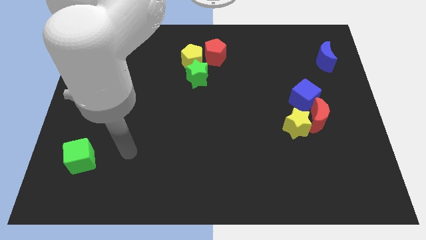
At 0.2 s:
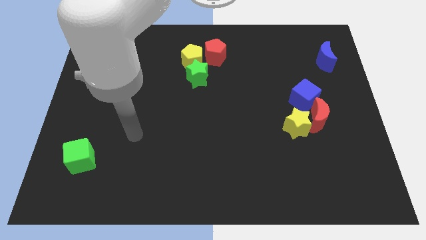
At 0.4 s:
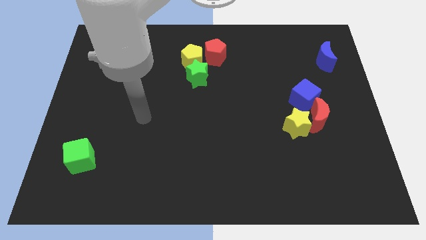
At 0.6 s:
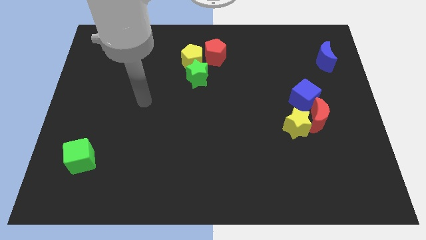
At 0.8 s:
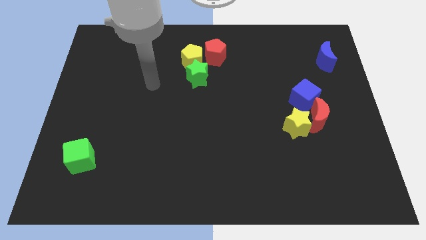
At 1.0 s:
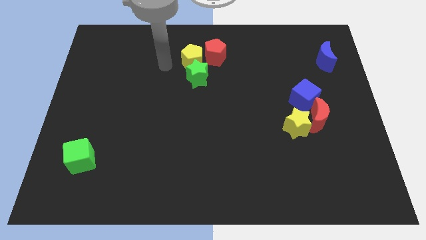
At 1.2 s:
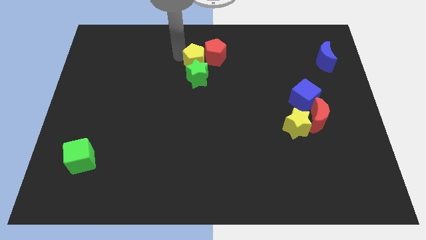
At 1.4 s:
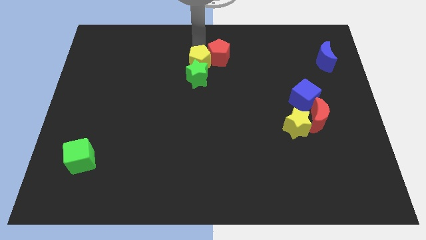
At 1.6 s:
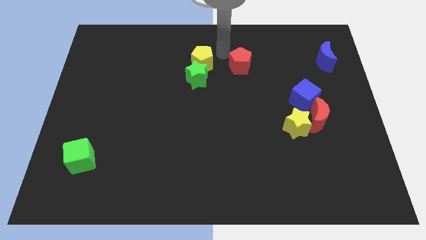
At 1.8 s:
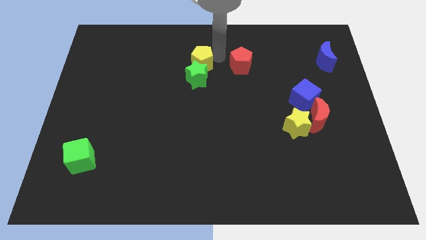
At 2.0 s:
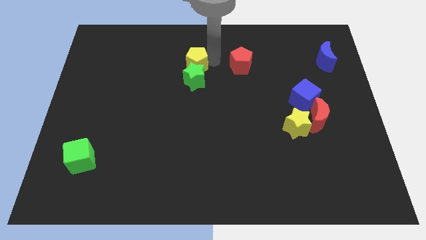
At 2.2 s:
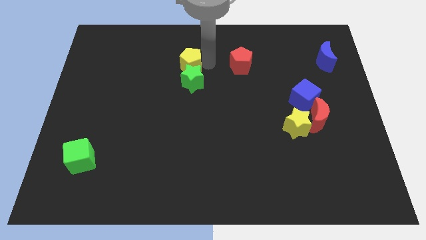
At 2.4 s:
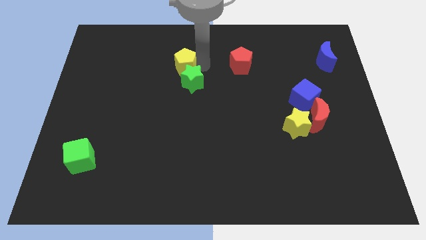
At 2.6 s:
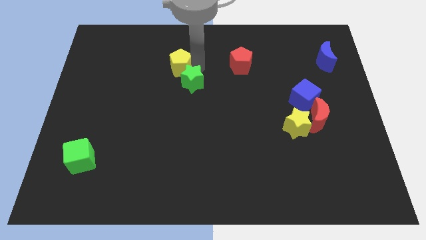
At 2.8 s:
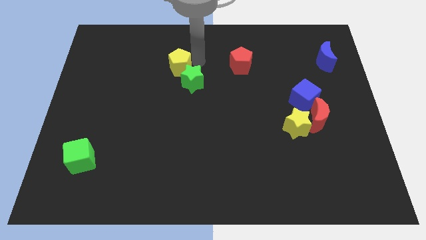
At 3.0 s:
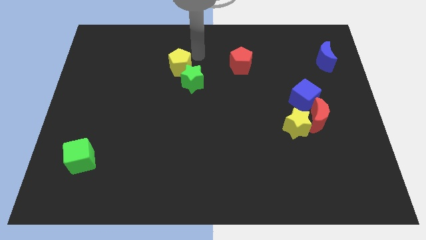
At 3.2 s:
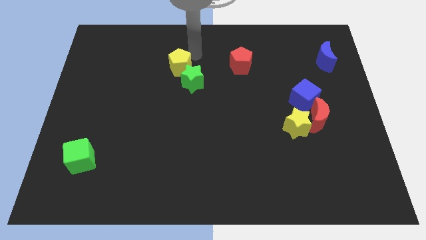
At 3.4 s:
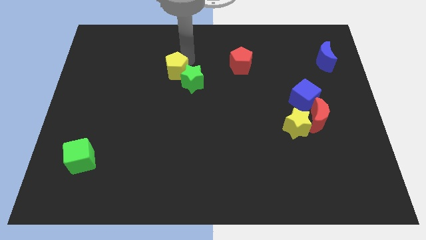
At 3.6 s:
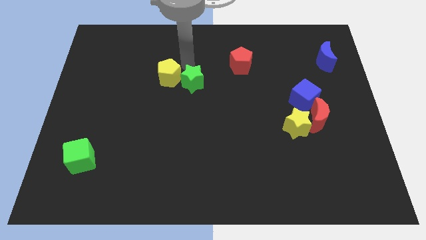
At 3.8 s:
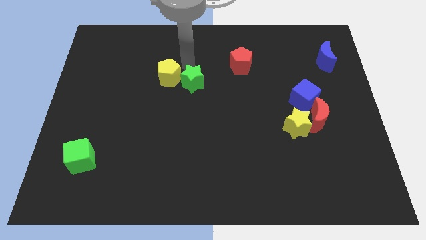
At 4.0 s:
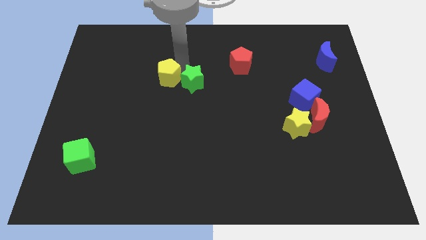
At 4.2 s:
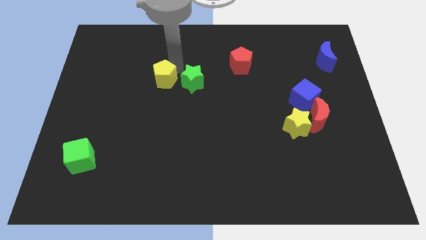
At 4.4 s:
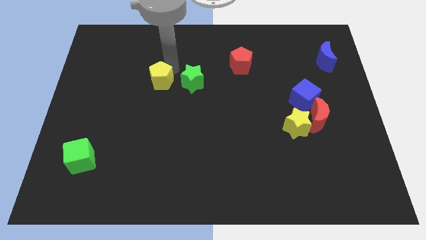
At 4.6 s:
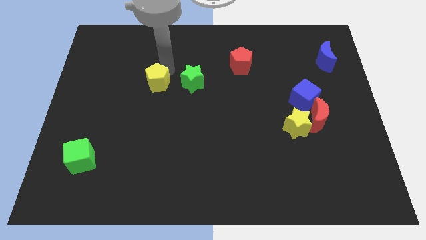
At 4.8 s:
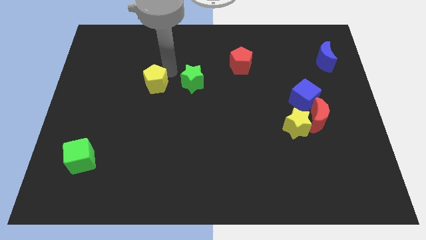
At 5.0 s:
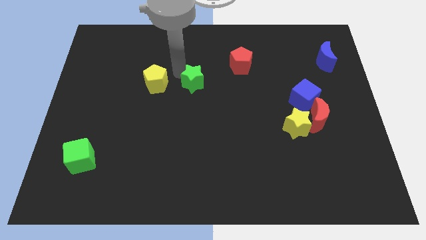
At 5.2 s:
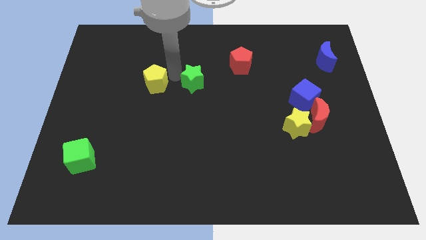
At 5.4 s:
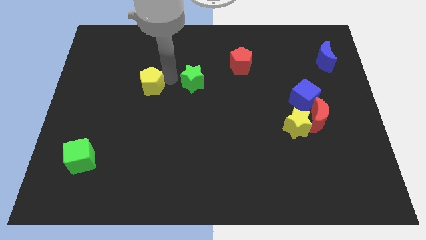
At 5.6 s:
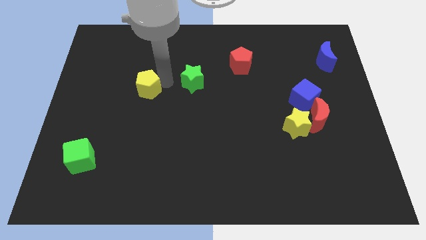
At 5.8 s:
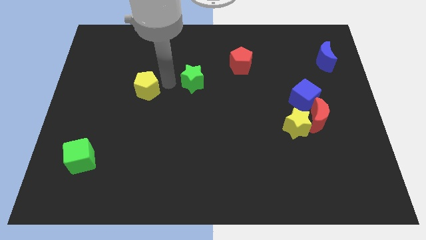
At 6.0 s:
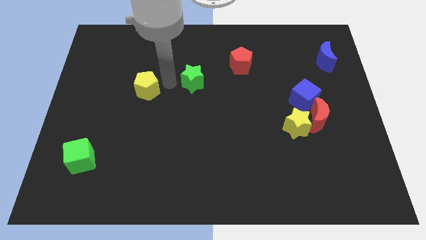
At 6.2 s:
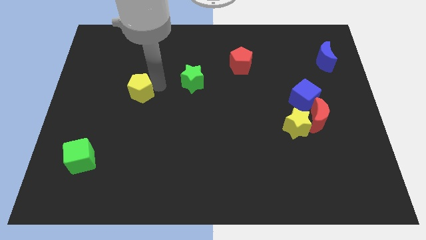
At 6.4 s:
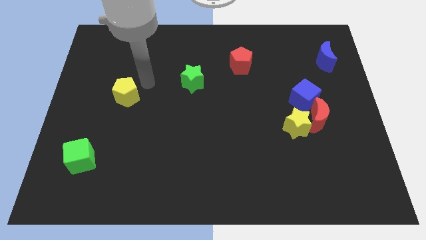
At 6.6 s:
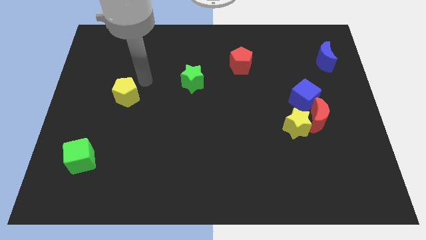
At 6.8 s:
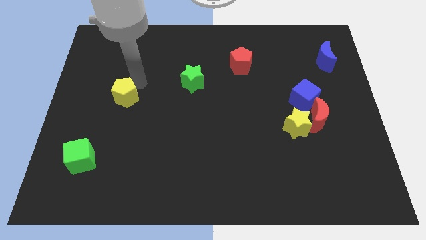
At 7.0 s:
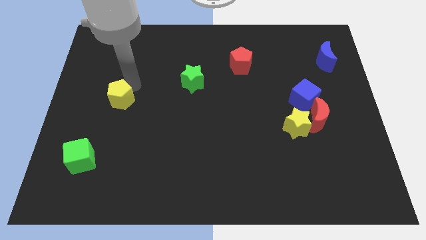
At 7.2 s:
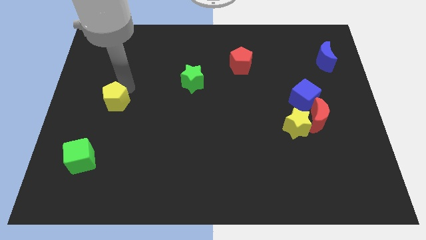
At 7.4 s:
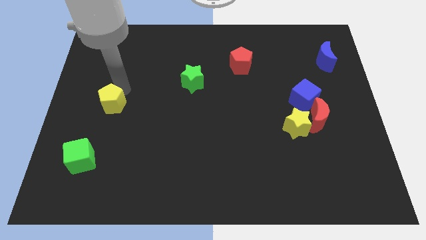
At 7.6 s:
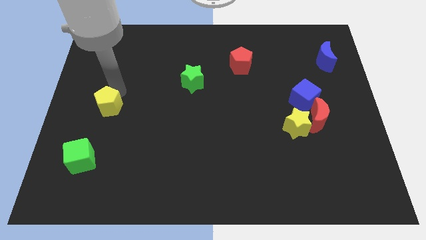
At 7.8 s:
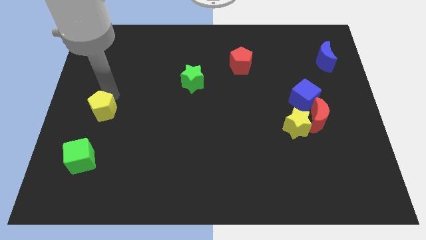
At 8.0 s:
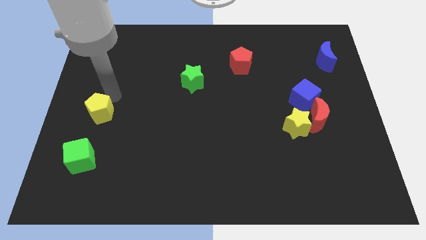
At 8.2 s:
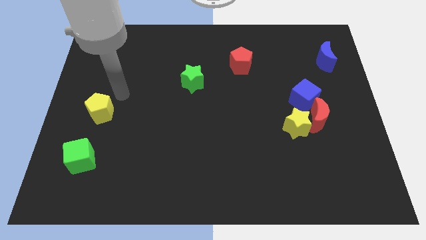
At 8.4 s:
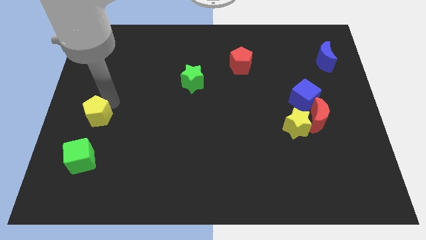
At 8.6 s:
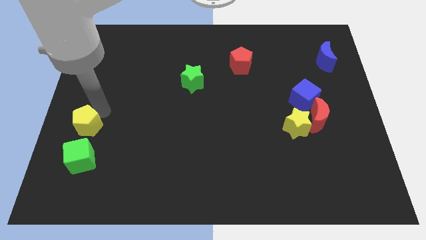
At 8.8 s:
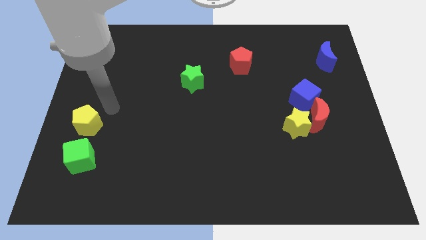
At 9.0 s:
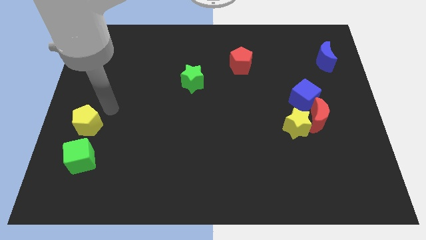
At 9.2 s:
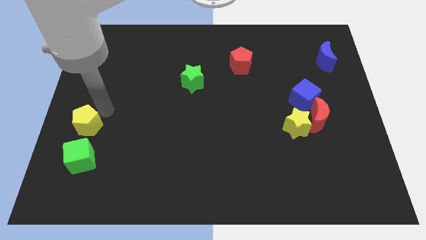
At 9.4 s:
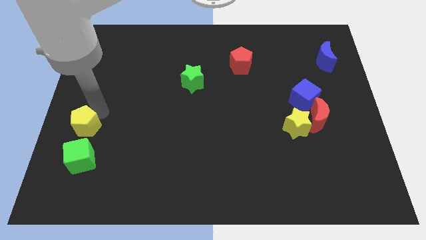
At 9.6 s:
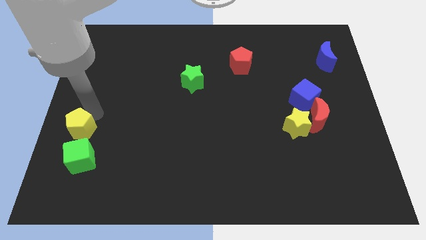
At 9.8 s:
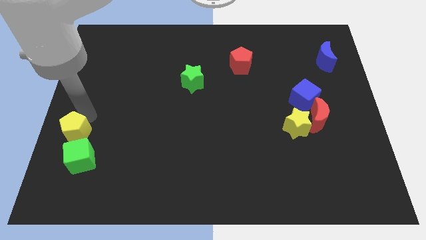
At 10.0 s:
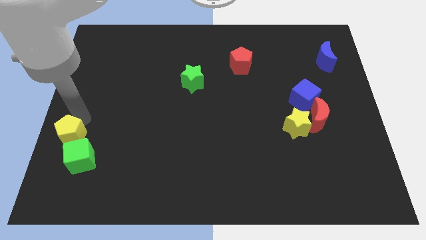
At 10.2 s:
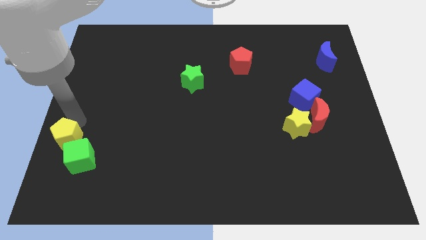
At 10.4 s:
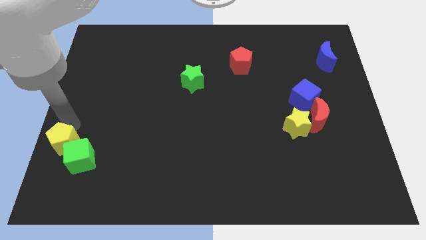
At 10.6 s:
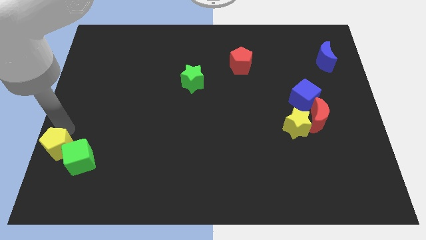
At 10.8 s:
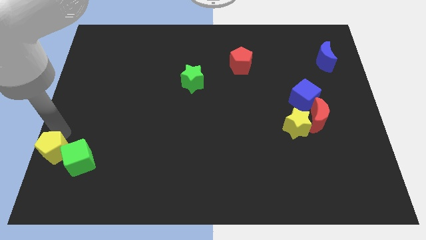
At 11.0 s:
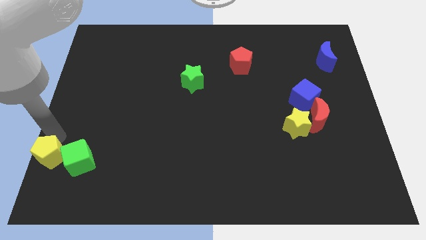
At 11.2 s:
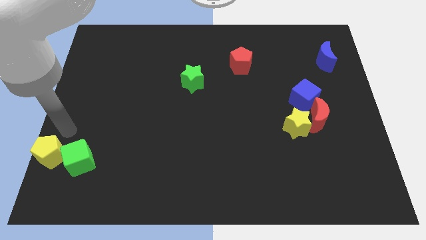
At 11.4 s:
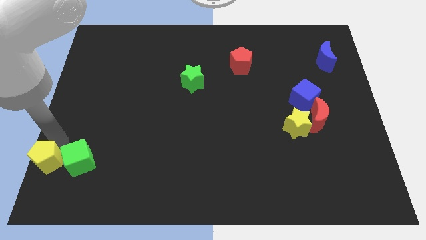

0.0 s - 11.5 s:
push the yellow pentagon to the bottom left of the board
